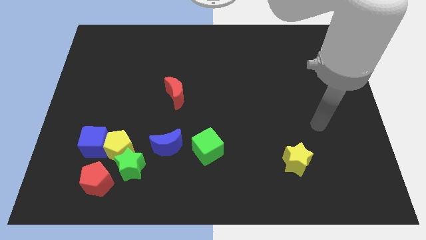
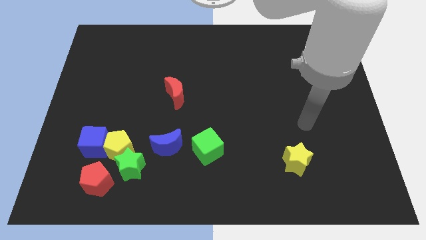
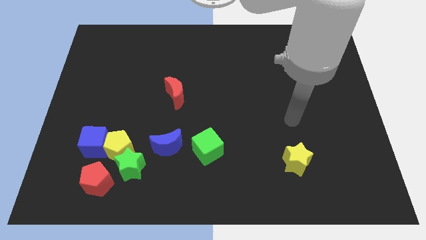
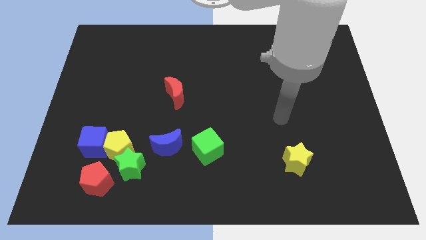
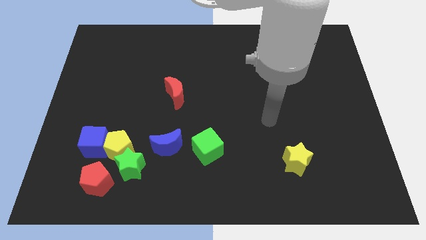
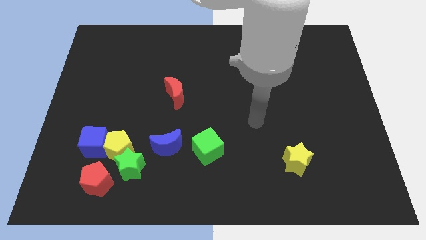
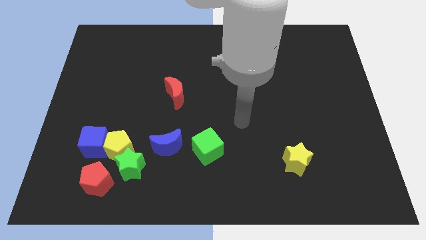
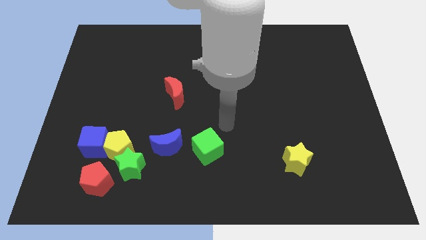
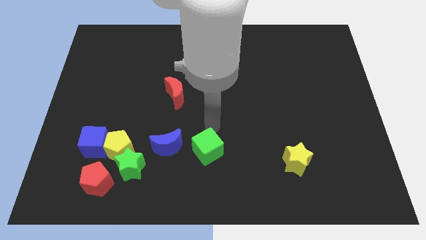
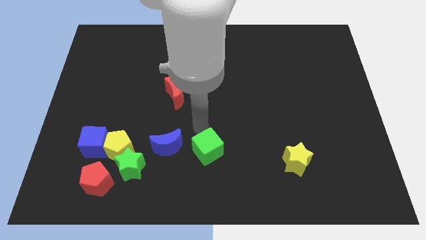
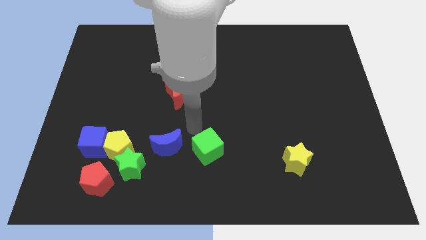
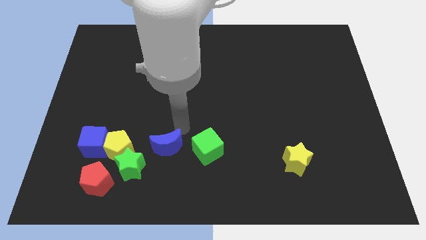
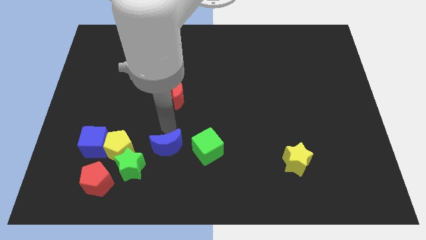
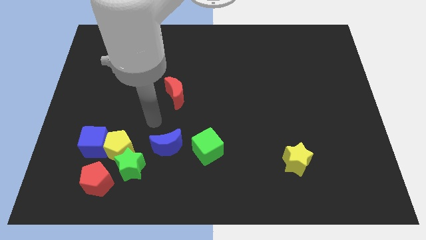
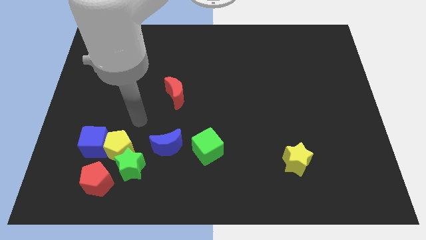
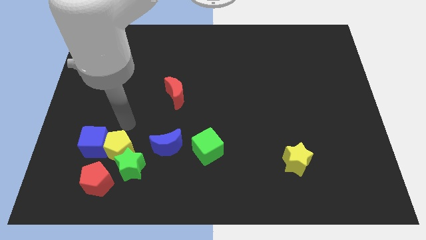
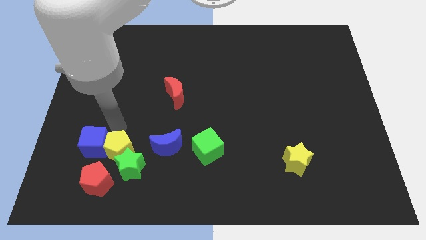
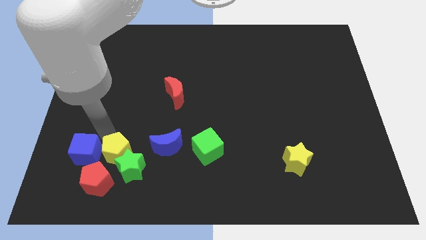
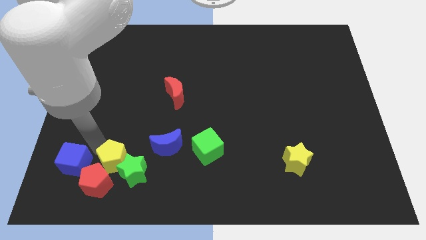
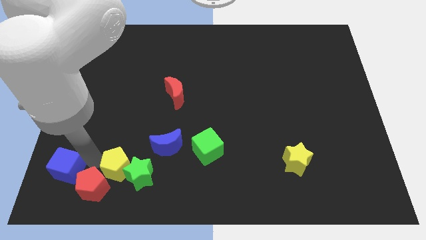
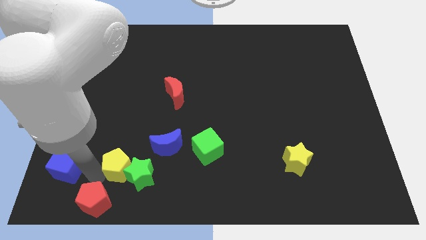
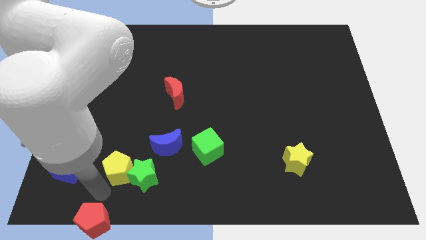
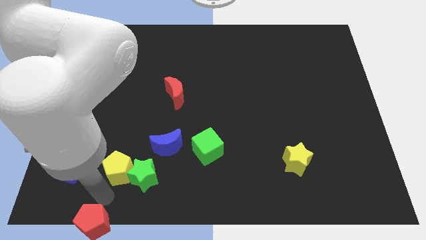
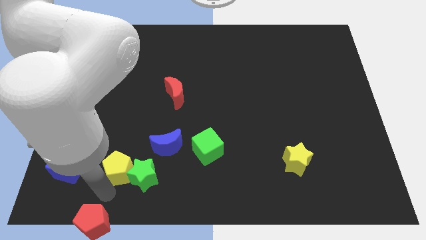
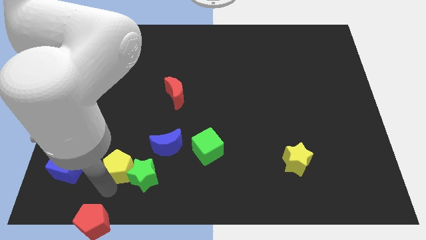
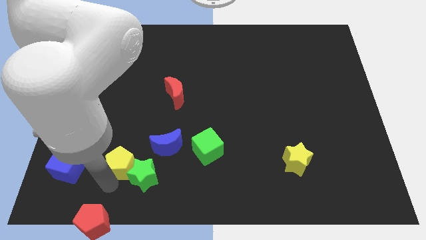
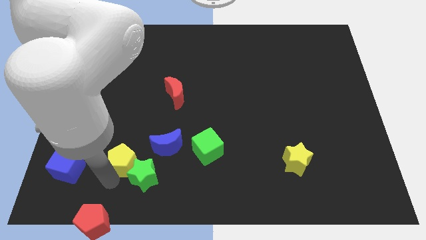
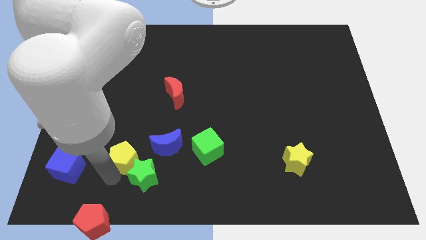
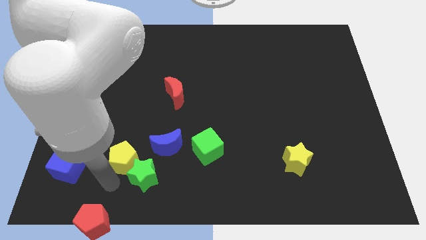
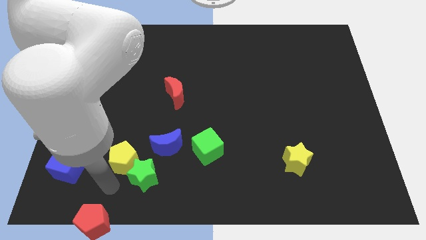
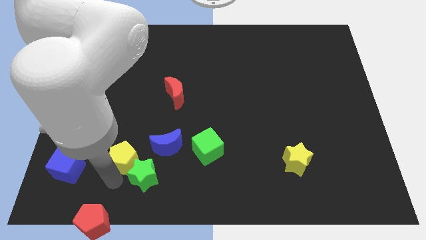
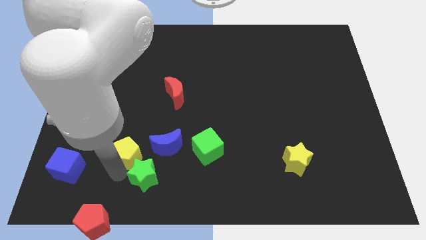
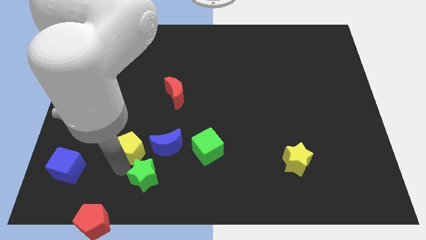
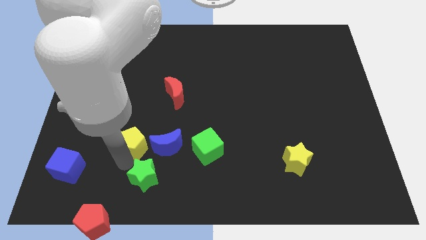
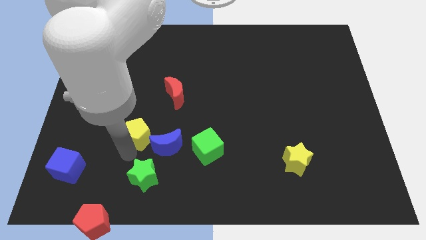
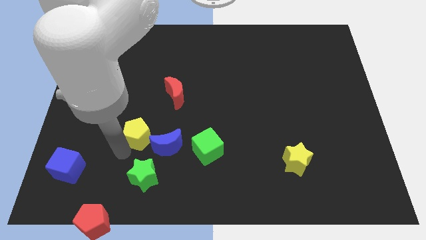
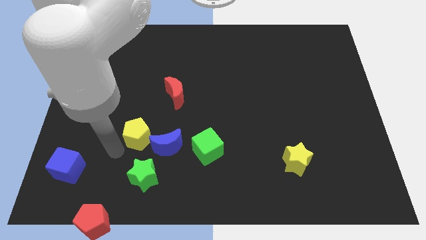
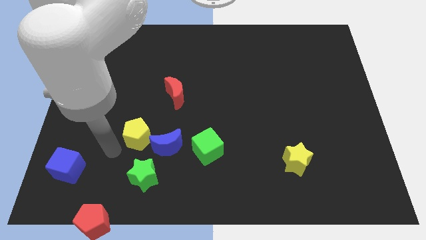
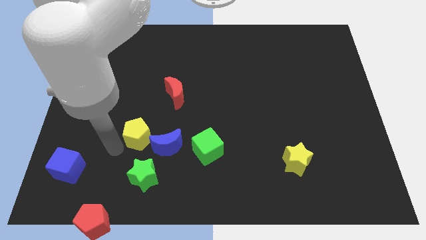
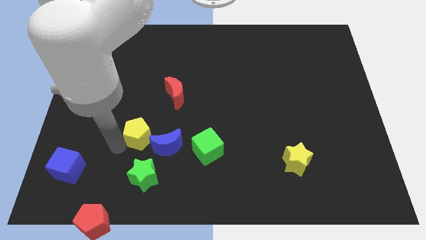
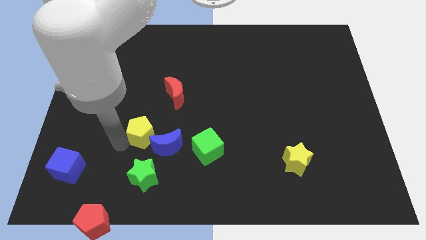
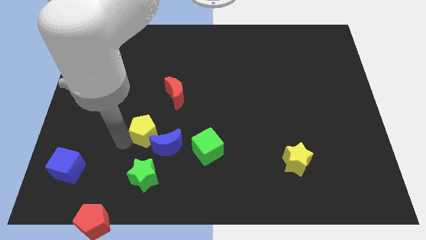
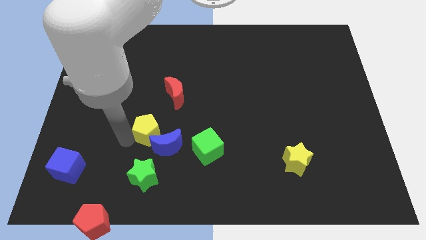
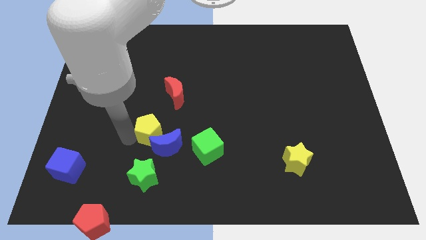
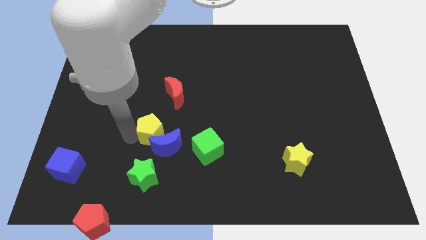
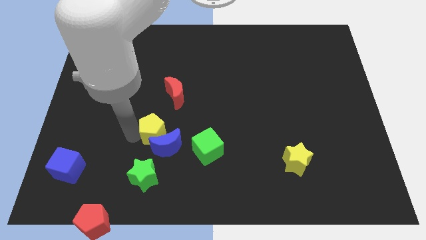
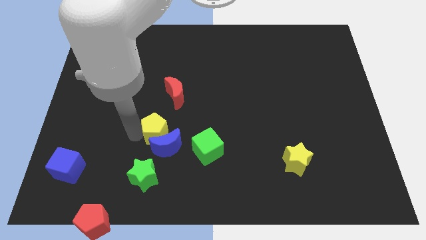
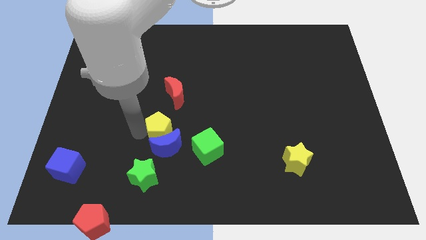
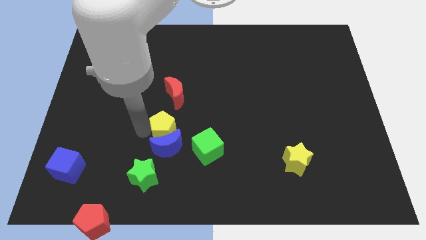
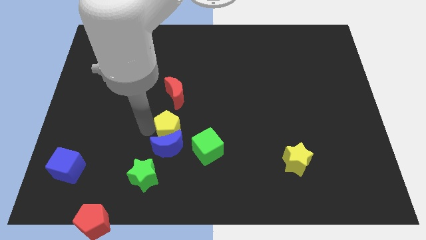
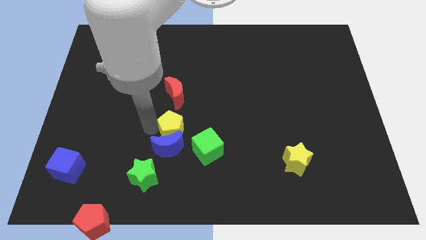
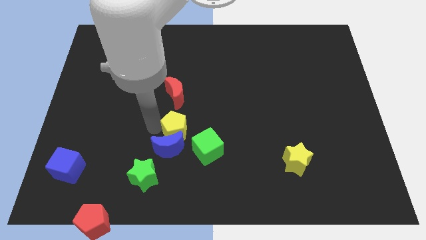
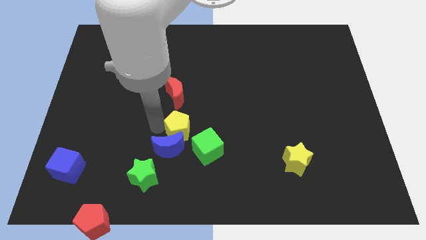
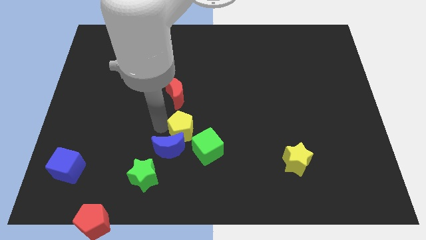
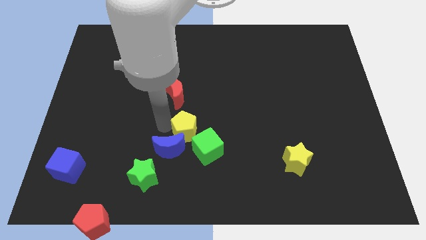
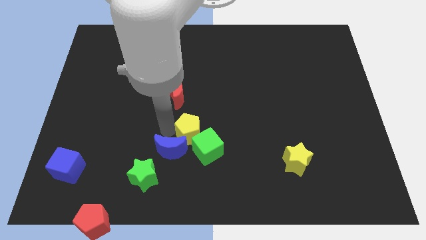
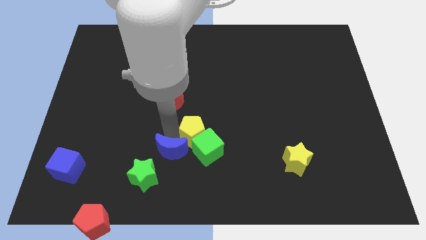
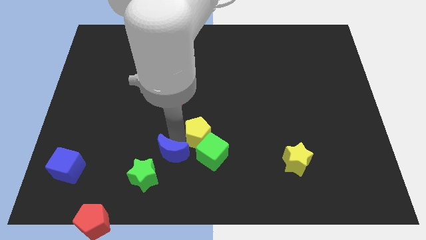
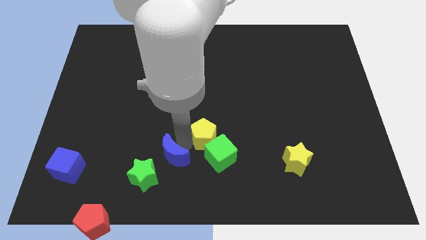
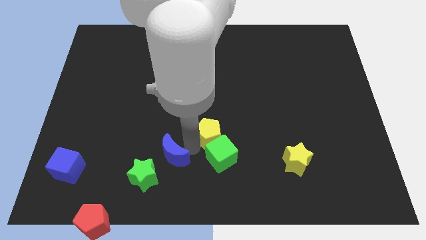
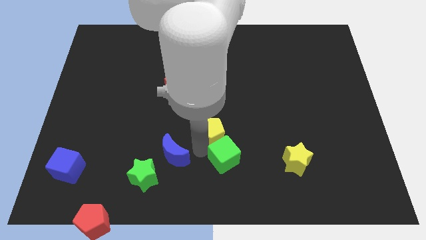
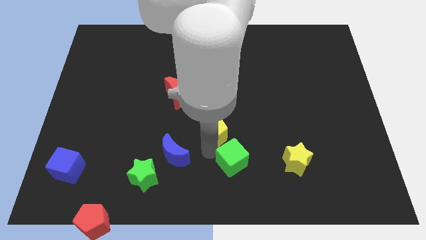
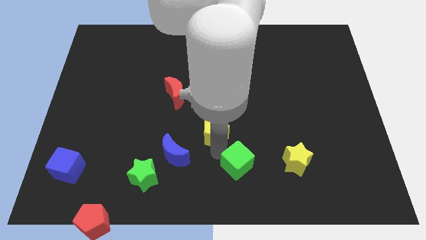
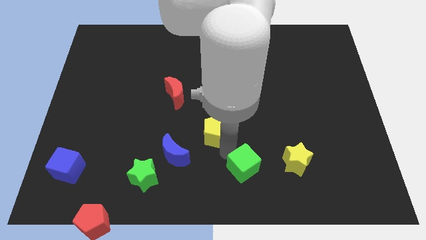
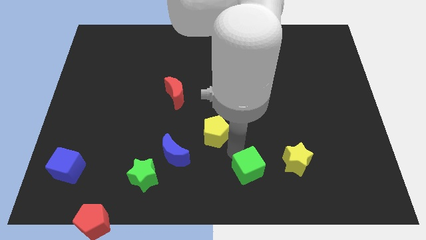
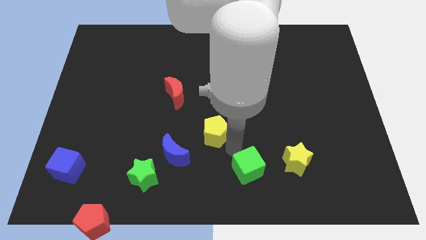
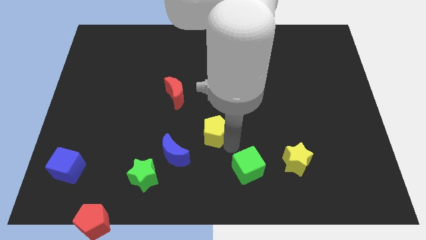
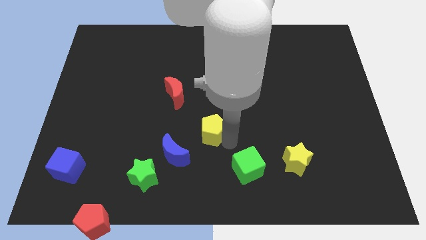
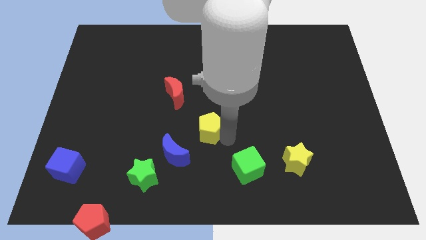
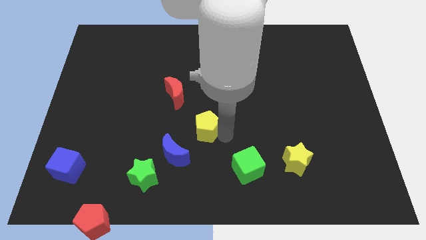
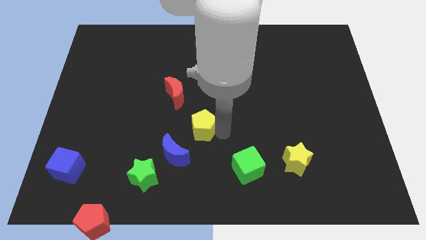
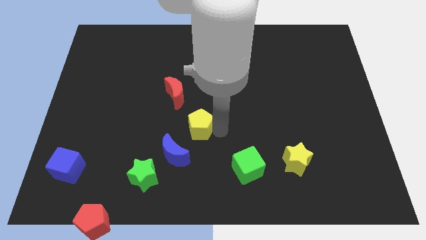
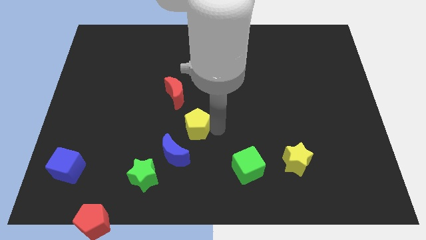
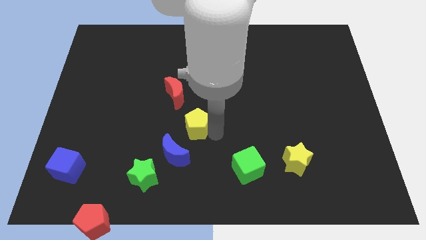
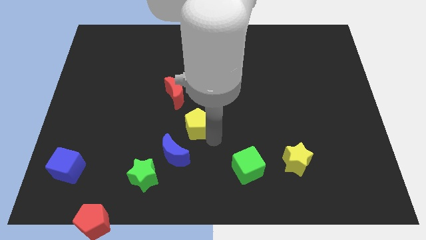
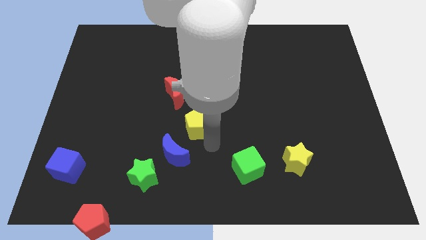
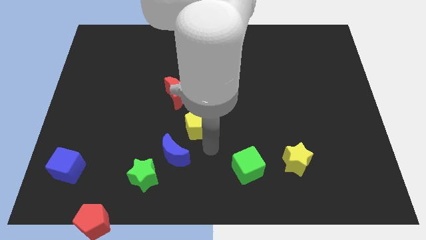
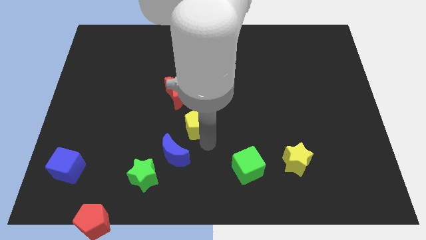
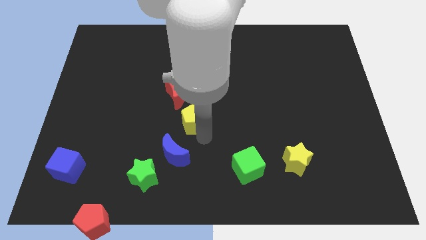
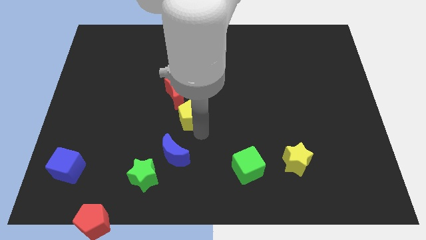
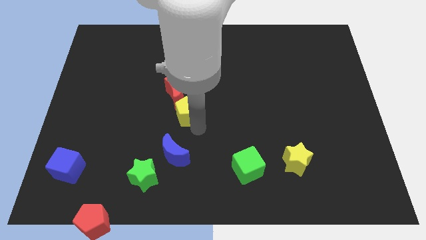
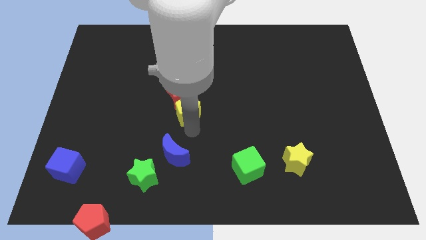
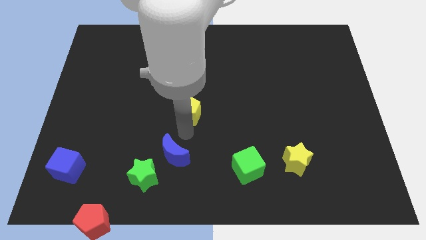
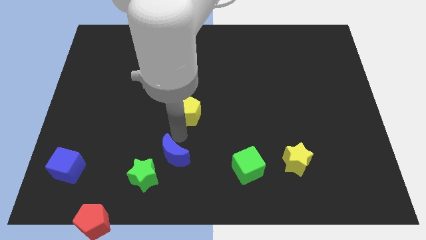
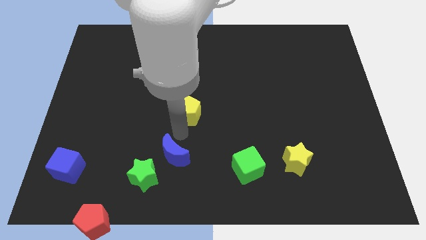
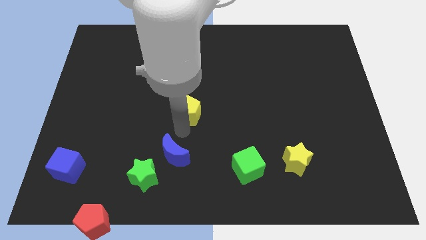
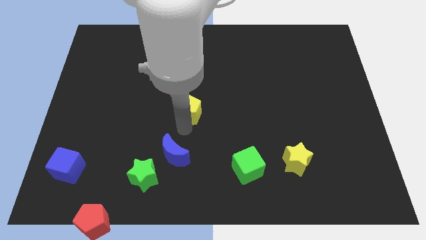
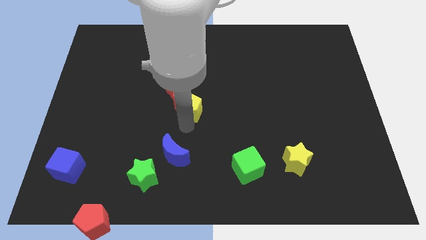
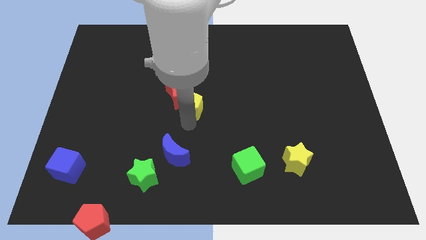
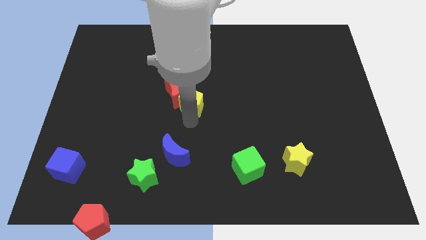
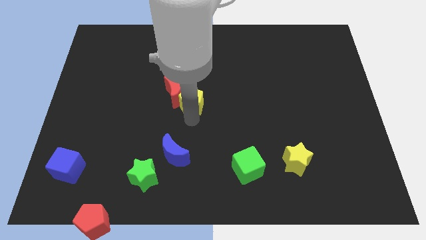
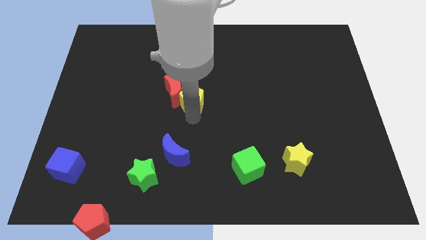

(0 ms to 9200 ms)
push the yellow pentagon up and to the right diagonally
